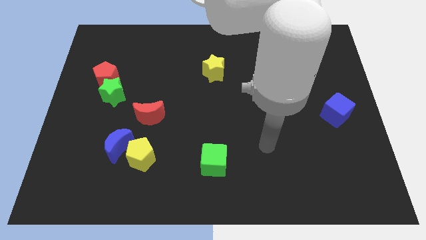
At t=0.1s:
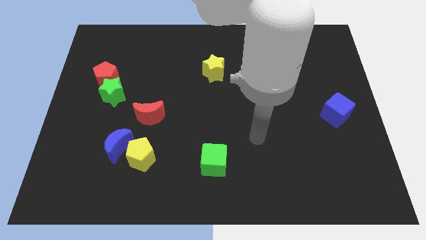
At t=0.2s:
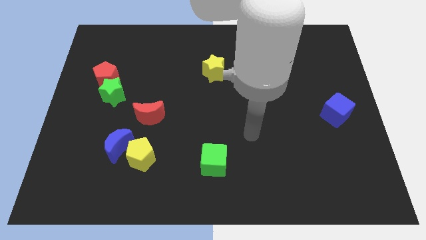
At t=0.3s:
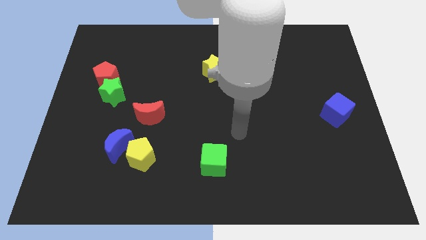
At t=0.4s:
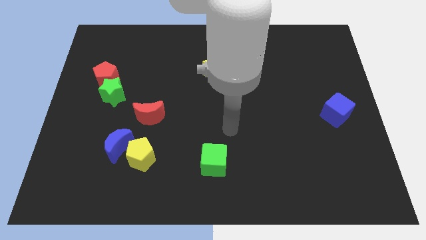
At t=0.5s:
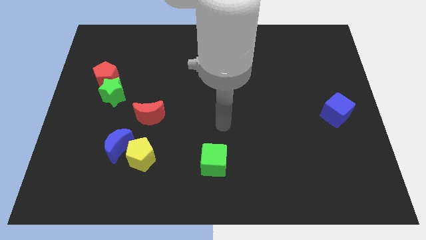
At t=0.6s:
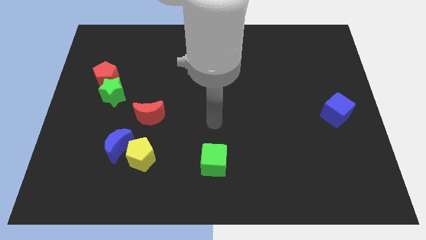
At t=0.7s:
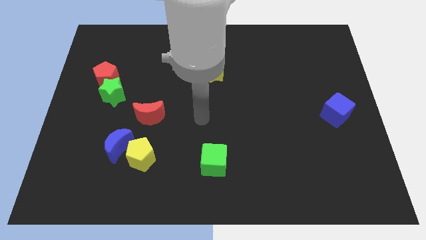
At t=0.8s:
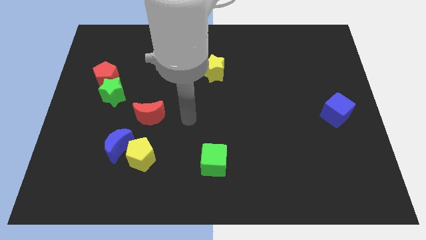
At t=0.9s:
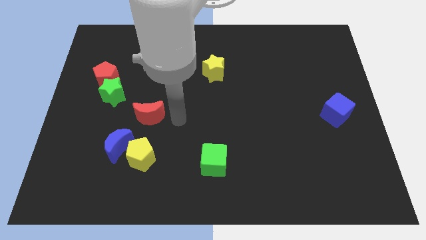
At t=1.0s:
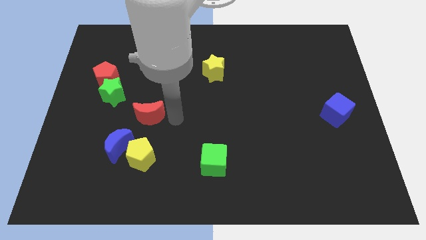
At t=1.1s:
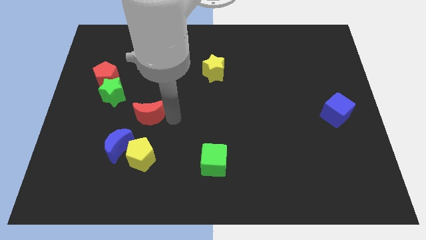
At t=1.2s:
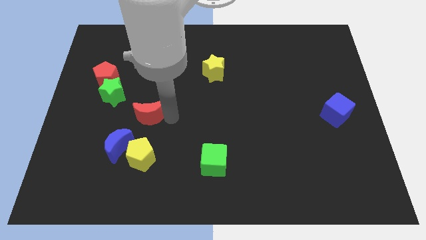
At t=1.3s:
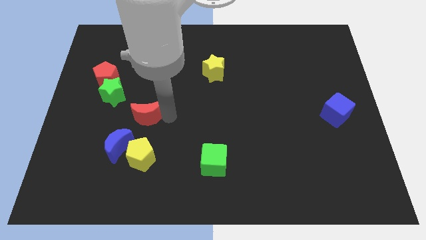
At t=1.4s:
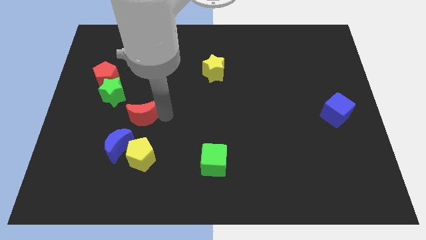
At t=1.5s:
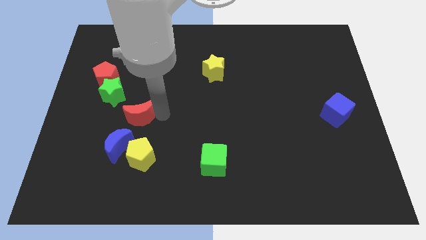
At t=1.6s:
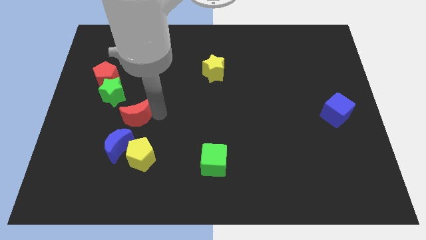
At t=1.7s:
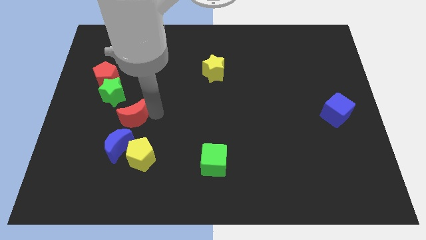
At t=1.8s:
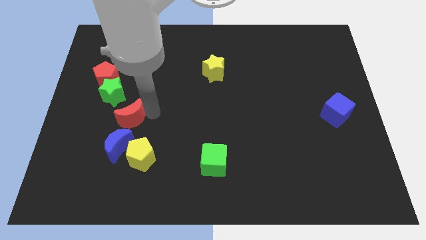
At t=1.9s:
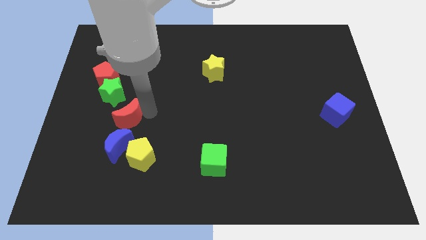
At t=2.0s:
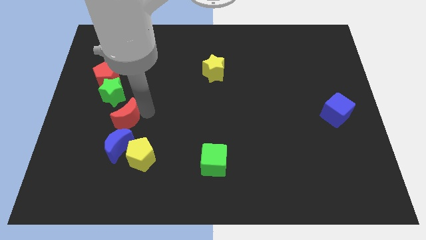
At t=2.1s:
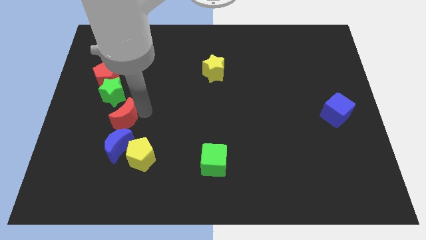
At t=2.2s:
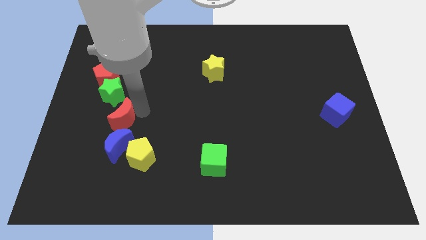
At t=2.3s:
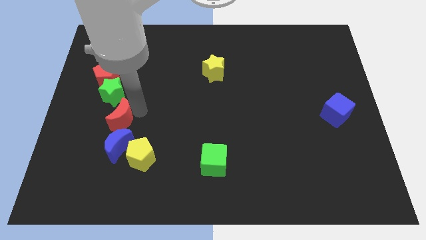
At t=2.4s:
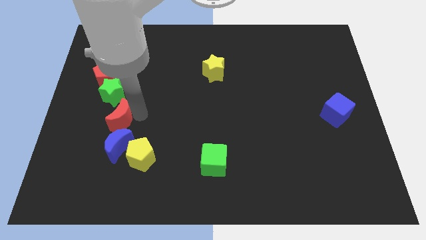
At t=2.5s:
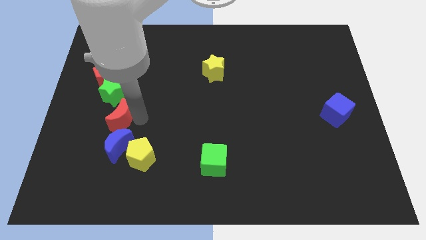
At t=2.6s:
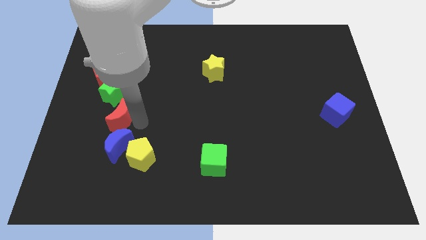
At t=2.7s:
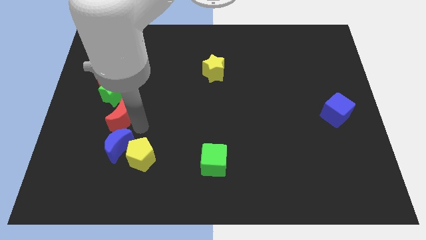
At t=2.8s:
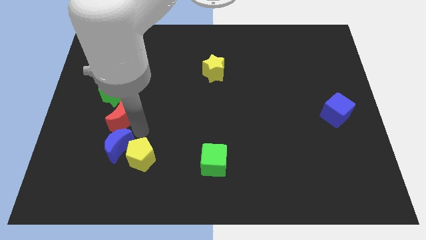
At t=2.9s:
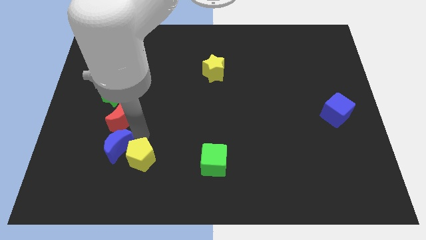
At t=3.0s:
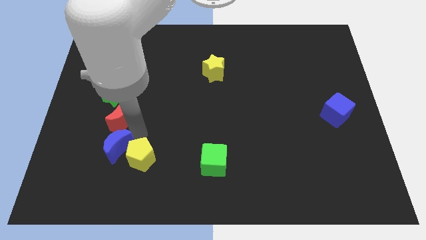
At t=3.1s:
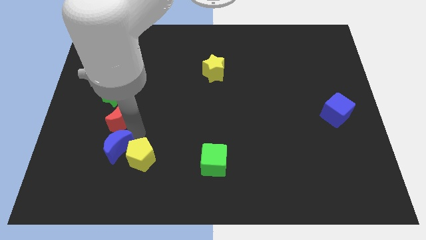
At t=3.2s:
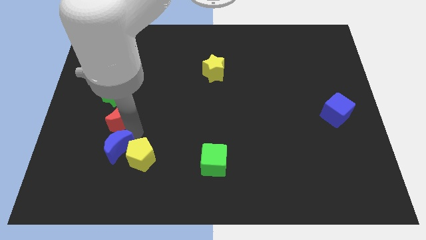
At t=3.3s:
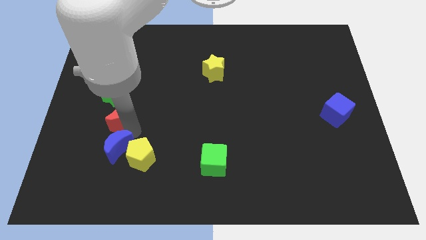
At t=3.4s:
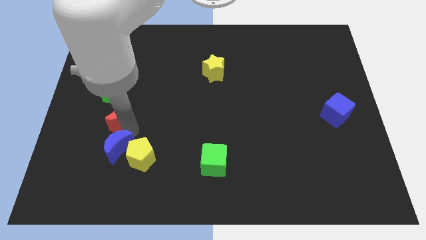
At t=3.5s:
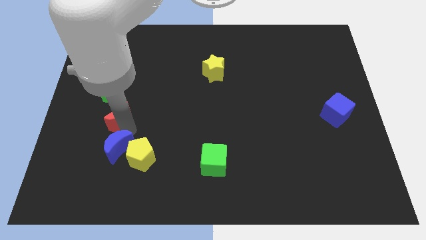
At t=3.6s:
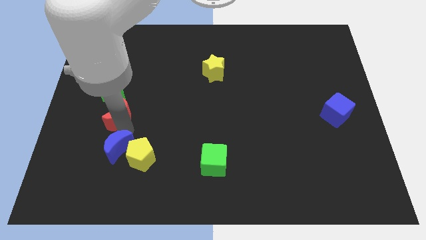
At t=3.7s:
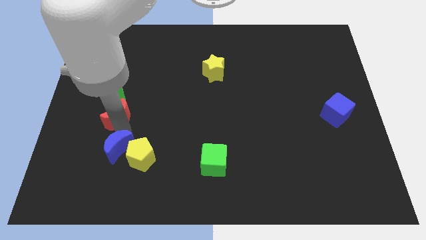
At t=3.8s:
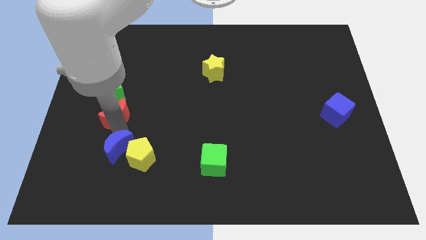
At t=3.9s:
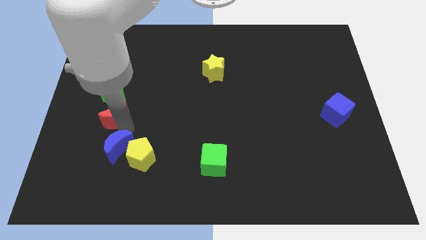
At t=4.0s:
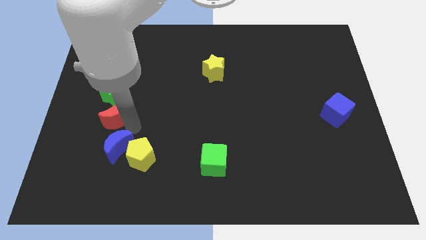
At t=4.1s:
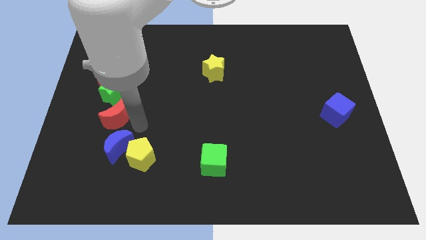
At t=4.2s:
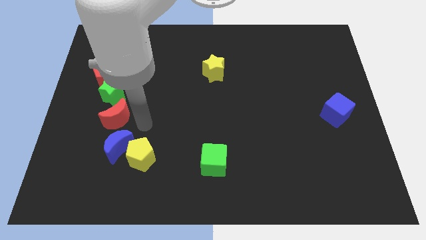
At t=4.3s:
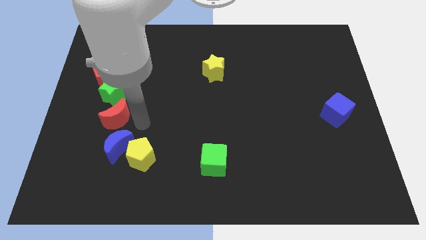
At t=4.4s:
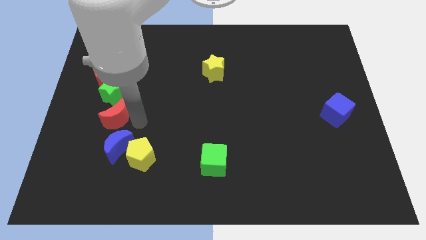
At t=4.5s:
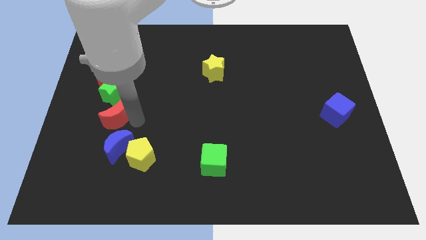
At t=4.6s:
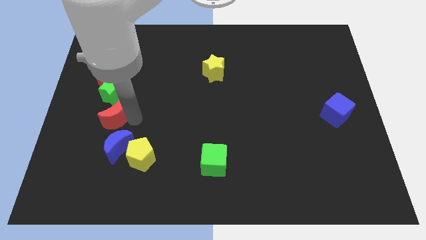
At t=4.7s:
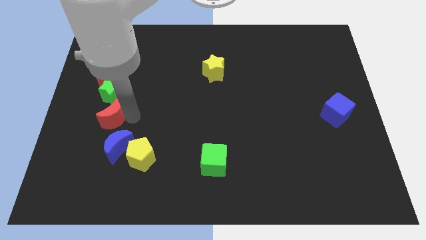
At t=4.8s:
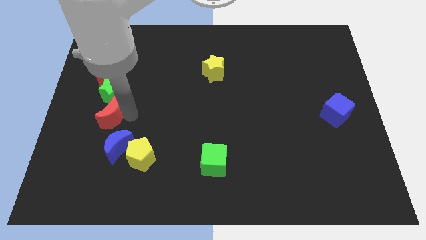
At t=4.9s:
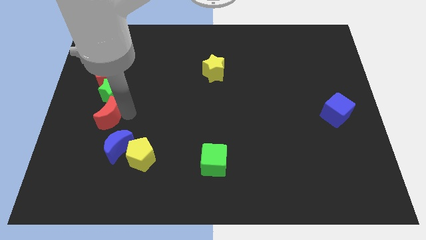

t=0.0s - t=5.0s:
put the red moon to the bottom left of the green star
